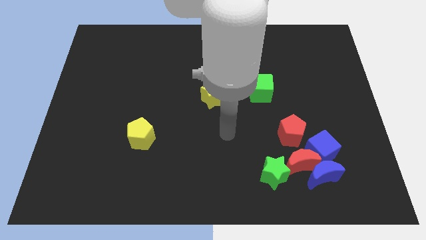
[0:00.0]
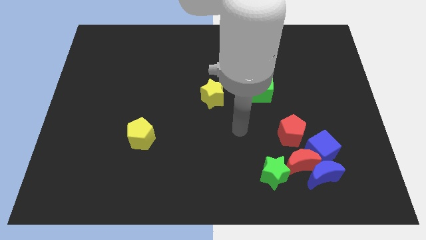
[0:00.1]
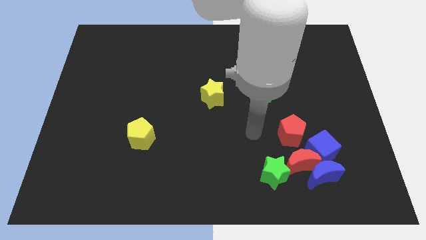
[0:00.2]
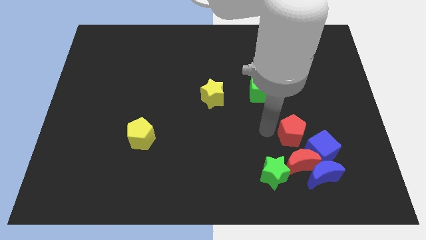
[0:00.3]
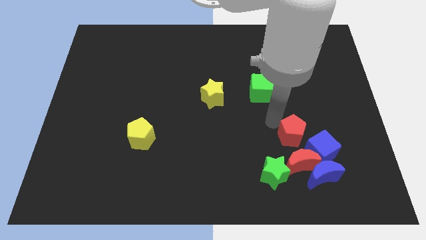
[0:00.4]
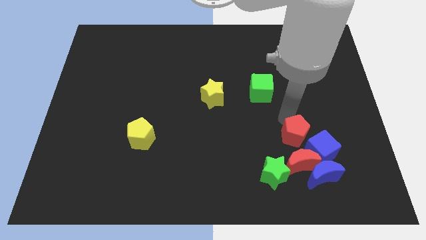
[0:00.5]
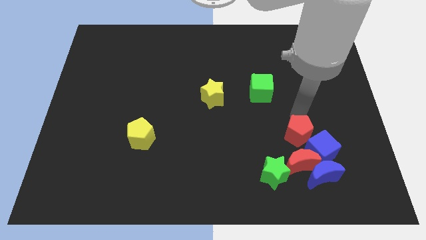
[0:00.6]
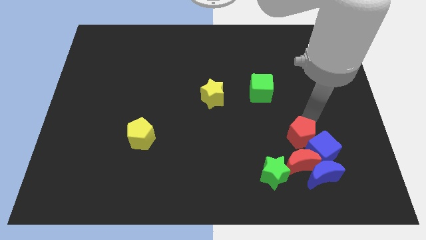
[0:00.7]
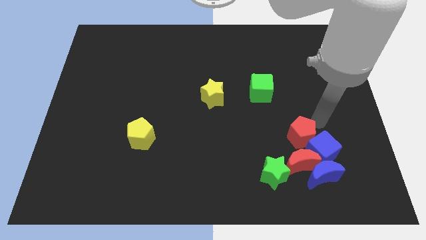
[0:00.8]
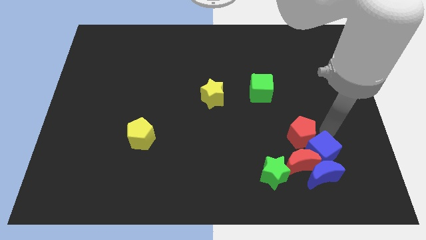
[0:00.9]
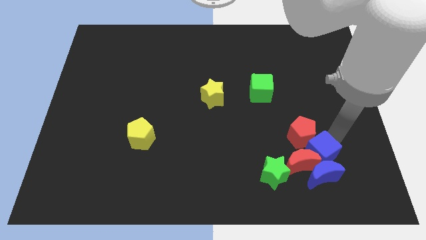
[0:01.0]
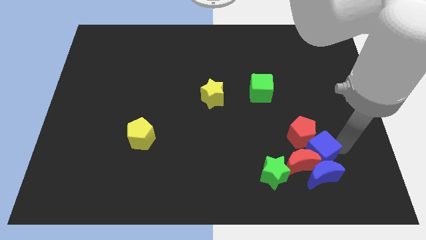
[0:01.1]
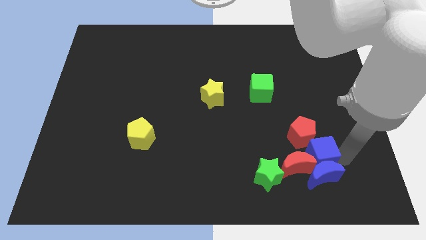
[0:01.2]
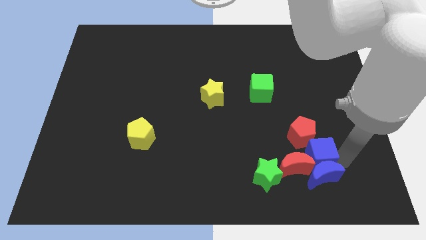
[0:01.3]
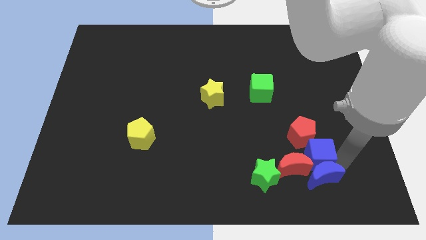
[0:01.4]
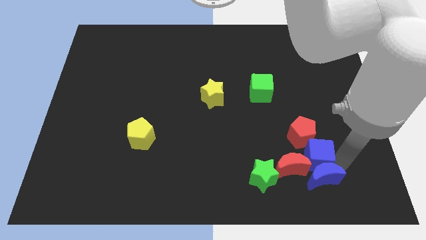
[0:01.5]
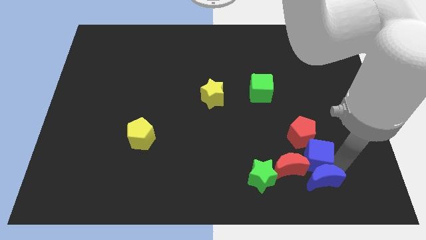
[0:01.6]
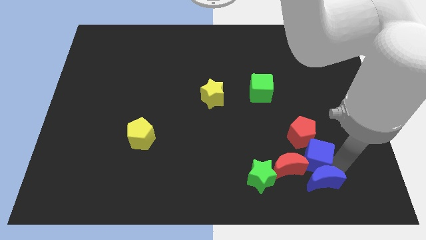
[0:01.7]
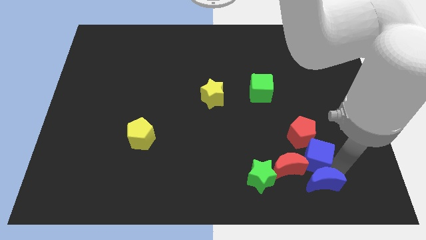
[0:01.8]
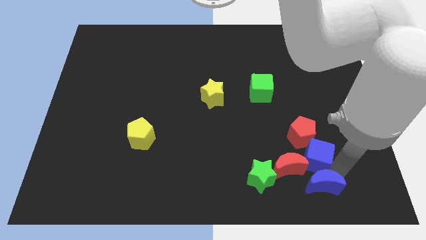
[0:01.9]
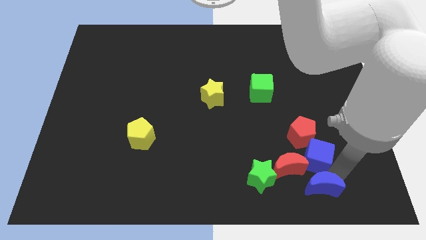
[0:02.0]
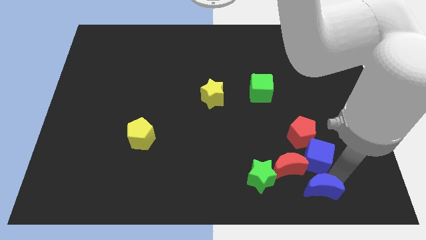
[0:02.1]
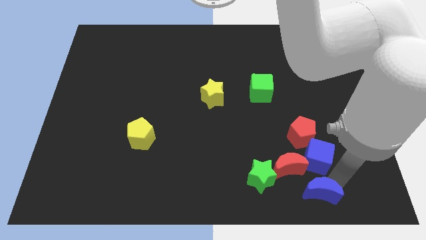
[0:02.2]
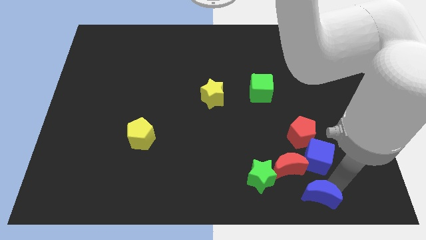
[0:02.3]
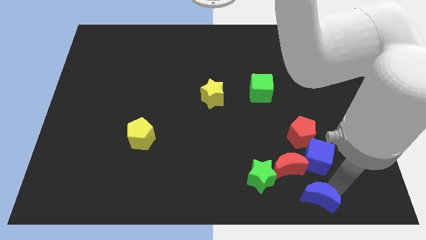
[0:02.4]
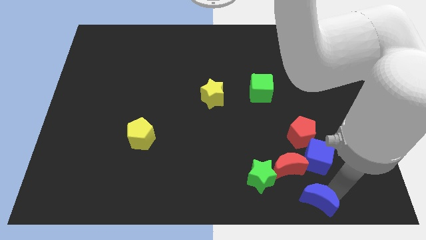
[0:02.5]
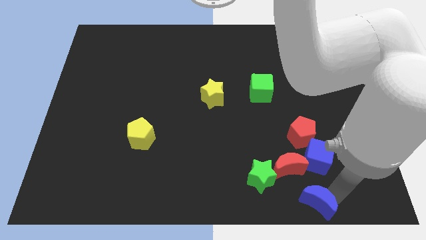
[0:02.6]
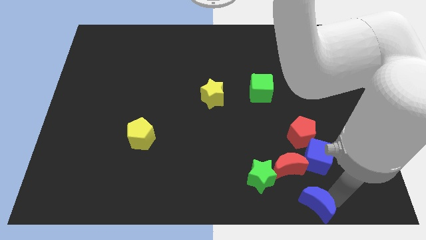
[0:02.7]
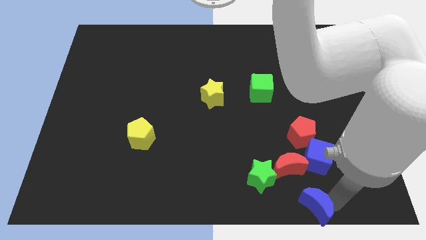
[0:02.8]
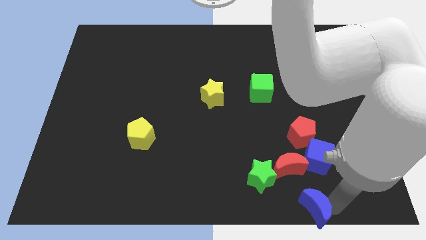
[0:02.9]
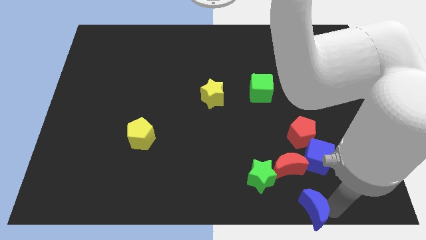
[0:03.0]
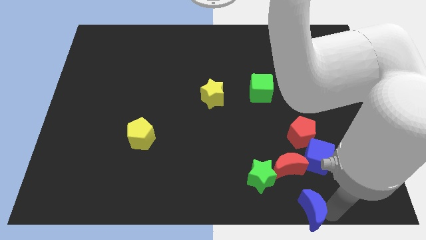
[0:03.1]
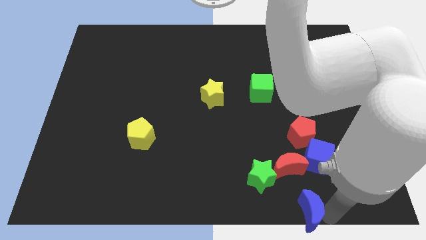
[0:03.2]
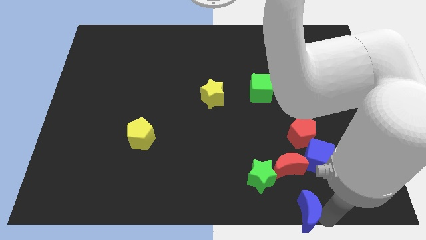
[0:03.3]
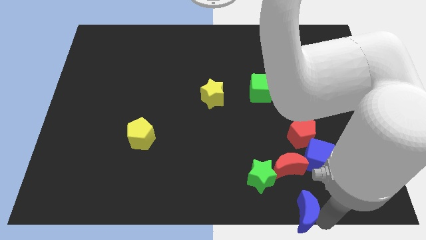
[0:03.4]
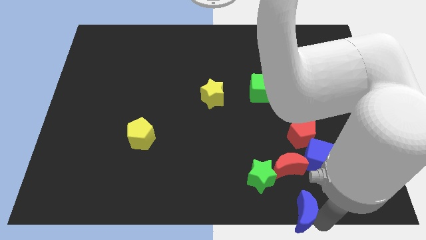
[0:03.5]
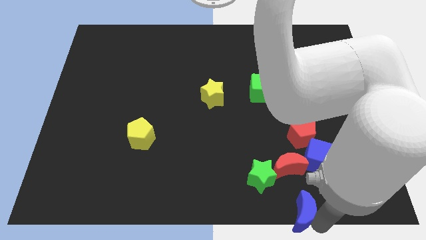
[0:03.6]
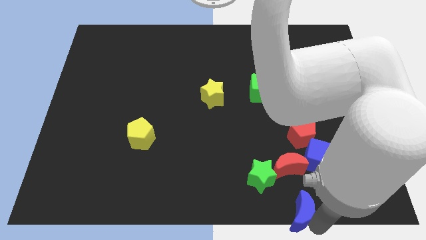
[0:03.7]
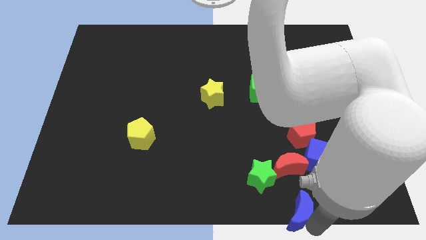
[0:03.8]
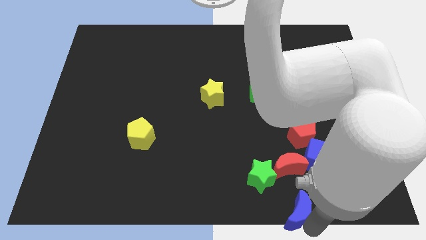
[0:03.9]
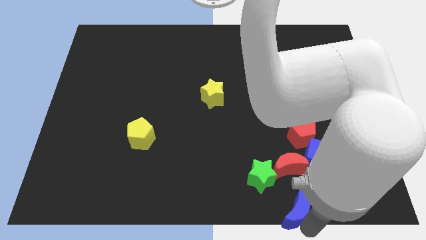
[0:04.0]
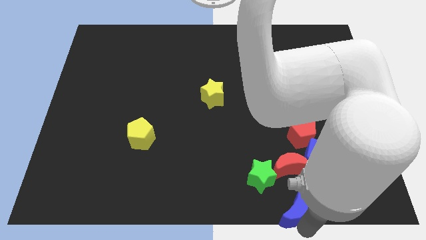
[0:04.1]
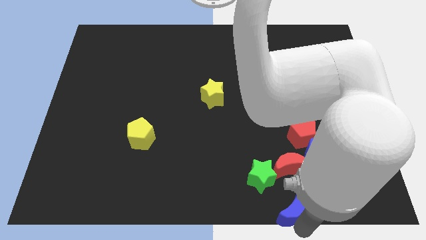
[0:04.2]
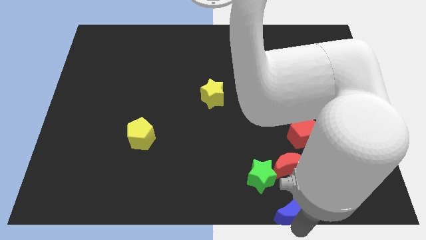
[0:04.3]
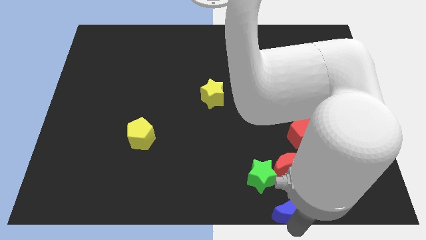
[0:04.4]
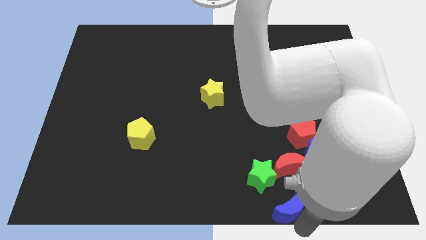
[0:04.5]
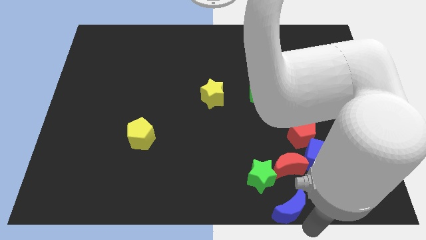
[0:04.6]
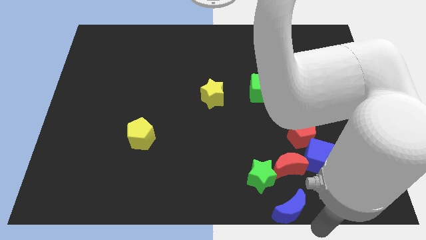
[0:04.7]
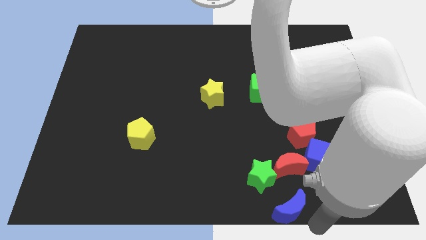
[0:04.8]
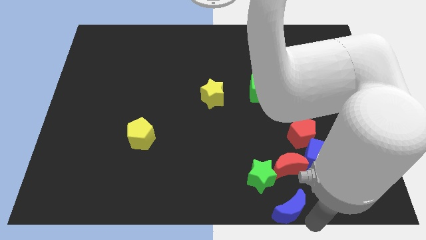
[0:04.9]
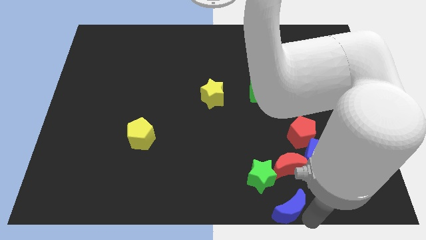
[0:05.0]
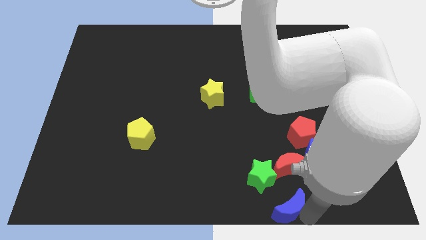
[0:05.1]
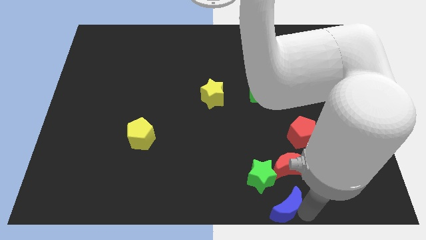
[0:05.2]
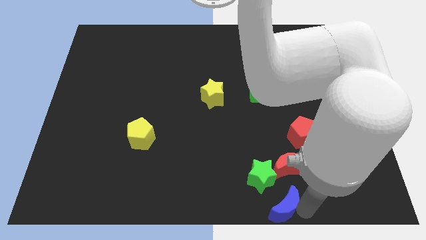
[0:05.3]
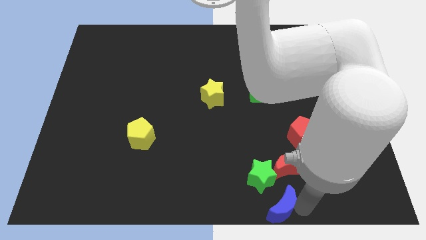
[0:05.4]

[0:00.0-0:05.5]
push the blue moon left a little

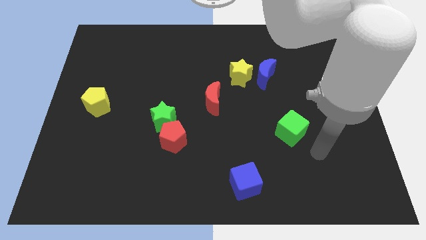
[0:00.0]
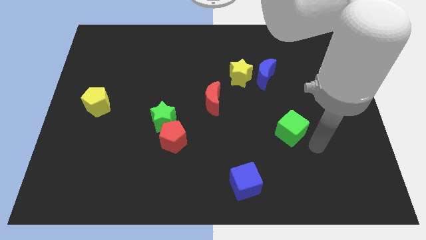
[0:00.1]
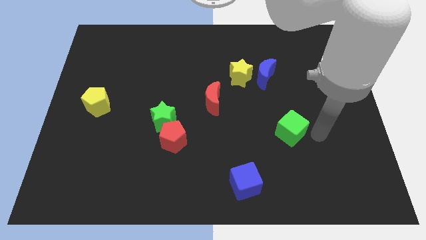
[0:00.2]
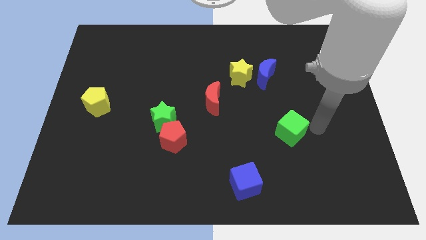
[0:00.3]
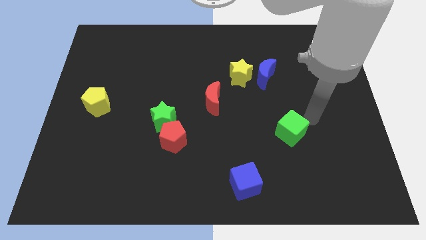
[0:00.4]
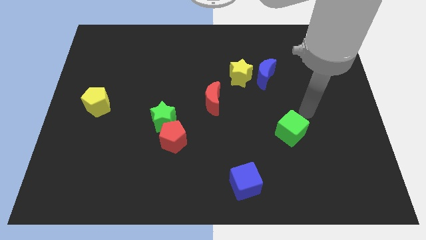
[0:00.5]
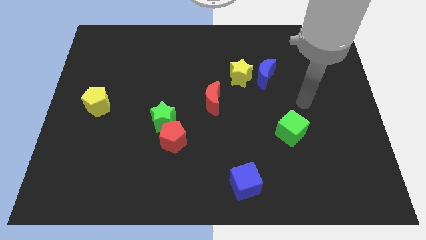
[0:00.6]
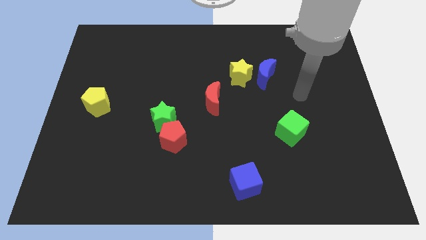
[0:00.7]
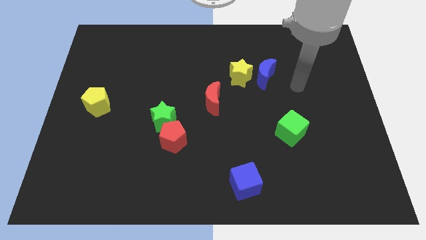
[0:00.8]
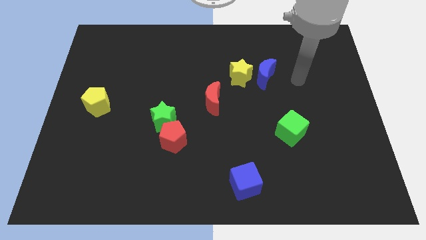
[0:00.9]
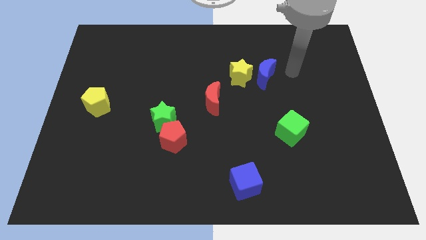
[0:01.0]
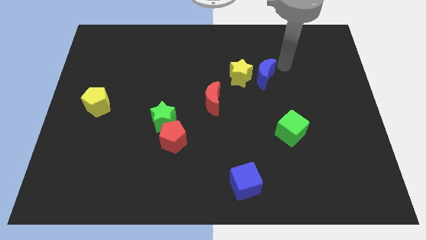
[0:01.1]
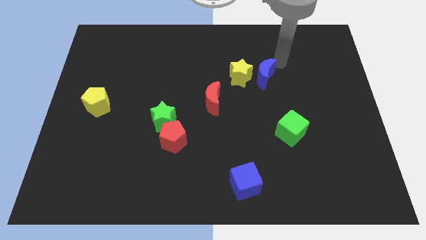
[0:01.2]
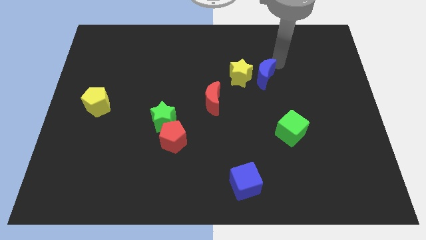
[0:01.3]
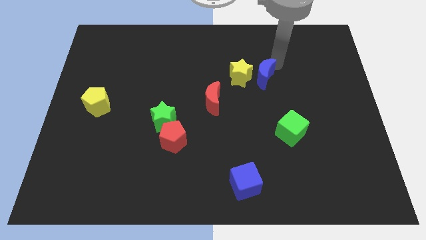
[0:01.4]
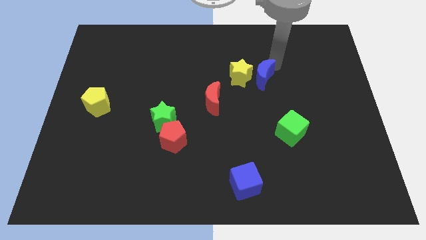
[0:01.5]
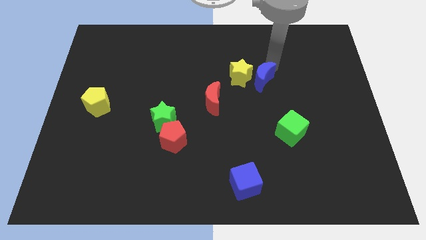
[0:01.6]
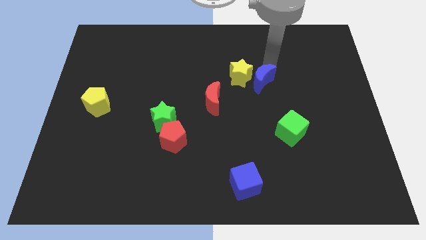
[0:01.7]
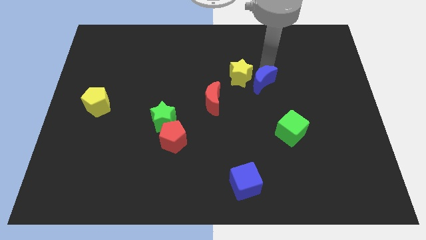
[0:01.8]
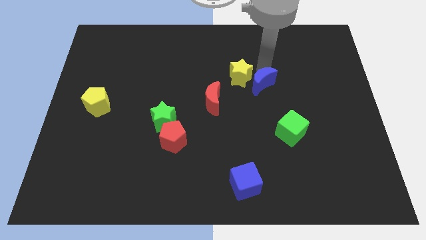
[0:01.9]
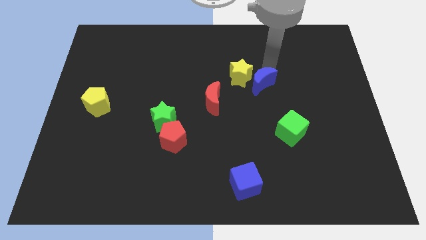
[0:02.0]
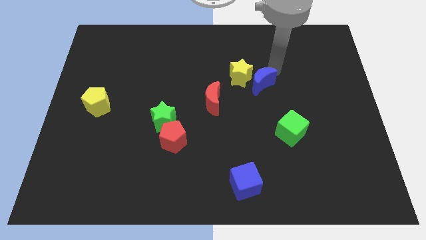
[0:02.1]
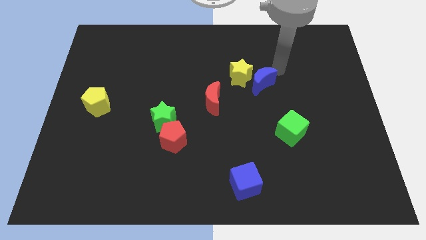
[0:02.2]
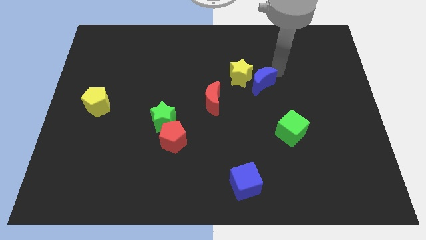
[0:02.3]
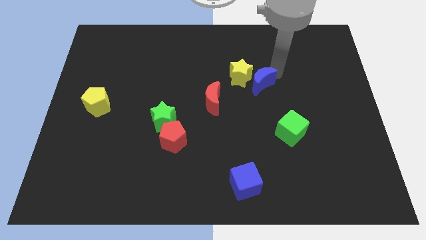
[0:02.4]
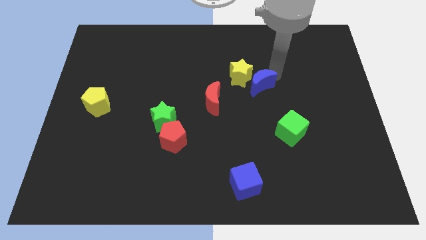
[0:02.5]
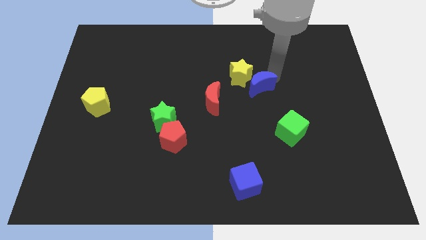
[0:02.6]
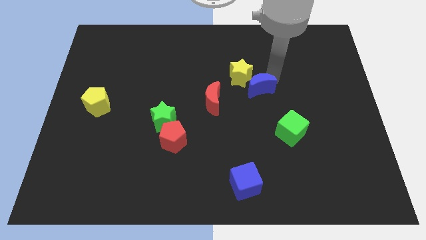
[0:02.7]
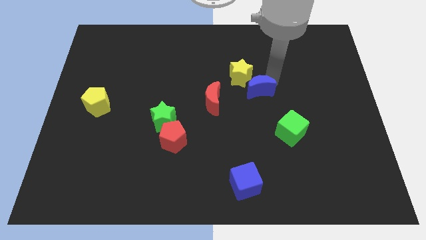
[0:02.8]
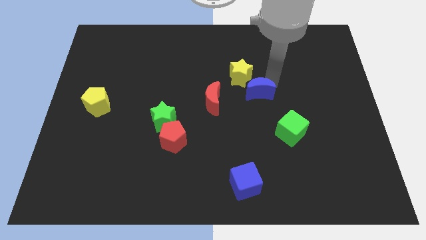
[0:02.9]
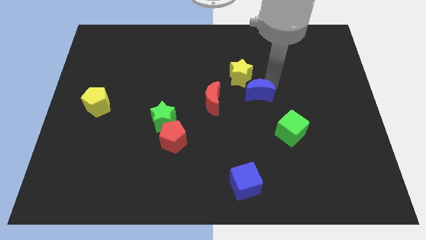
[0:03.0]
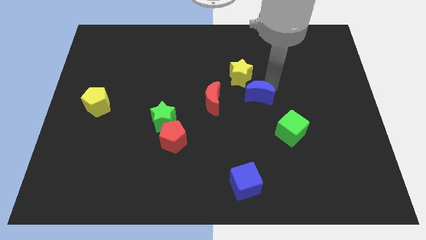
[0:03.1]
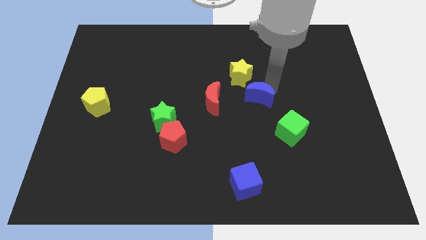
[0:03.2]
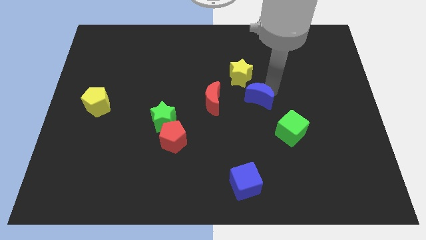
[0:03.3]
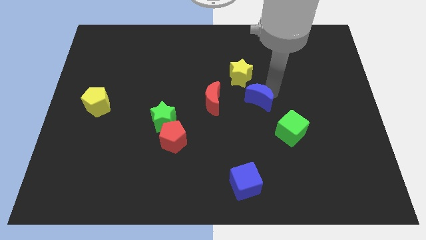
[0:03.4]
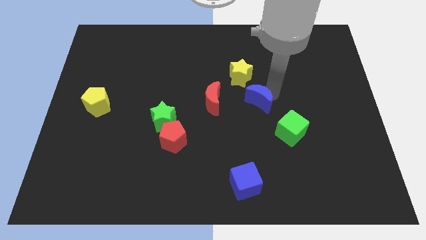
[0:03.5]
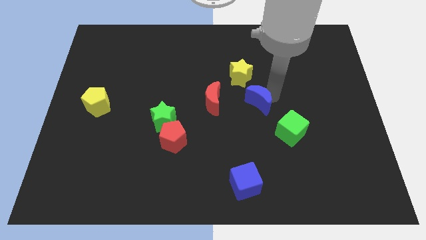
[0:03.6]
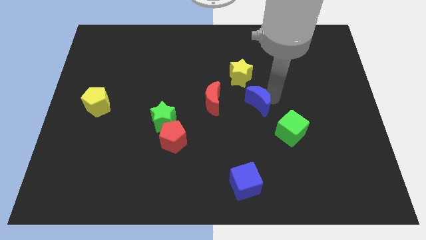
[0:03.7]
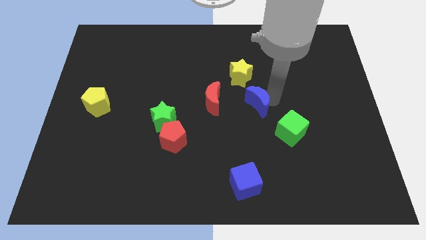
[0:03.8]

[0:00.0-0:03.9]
push the blue moon down and left diagonally a little
